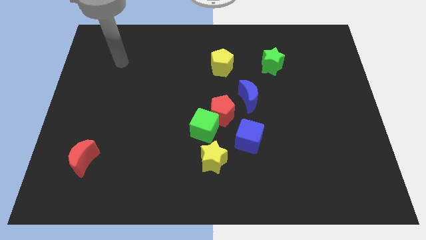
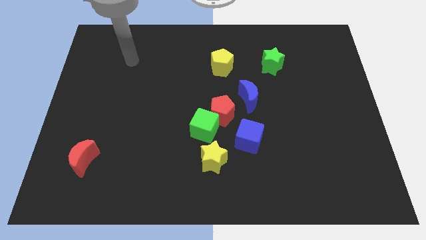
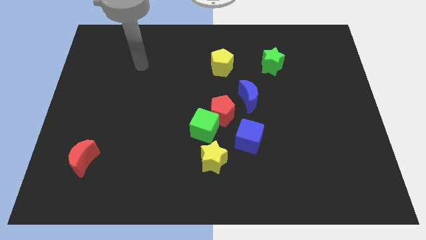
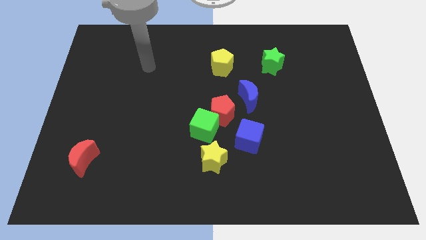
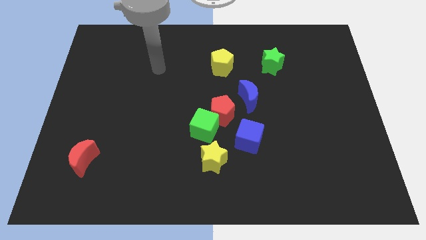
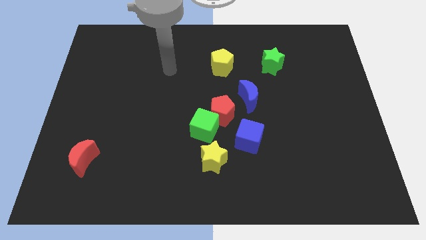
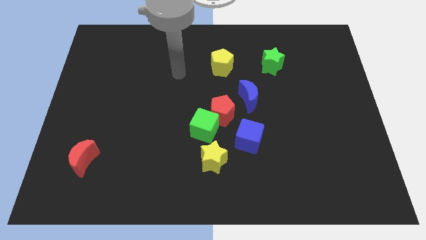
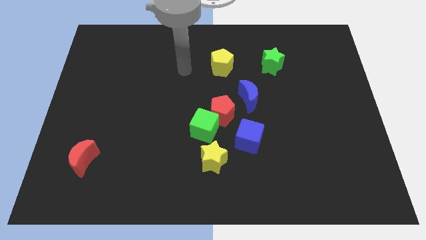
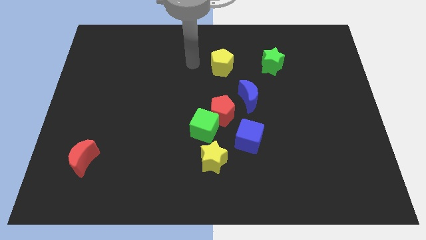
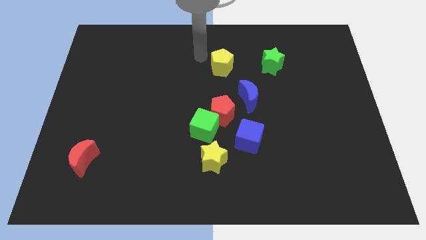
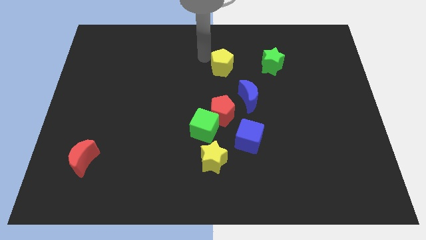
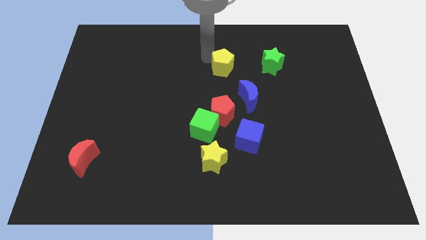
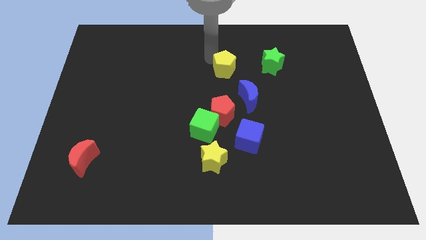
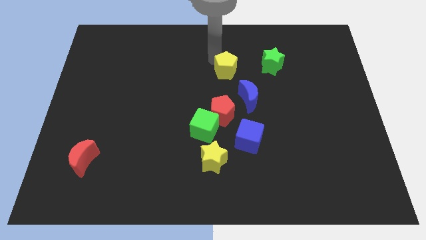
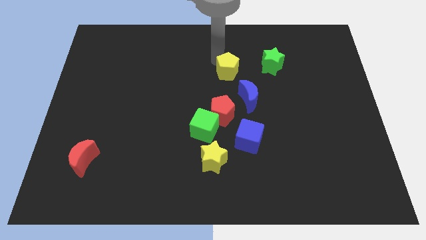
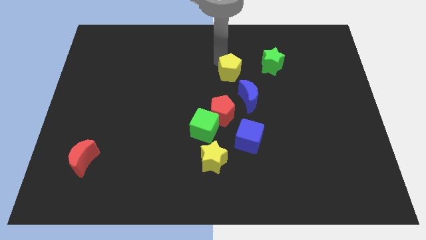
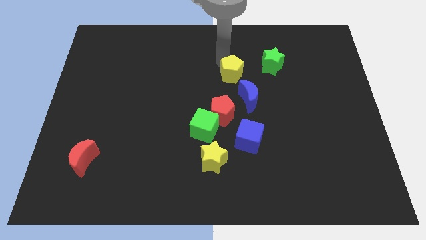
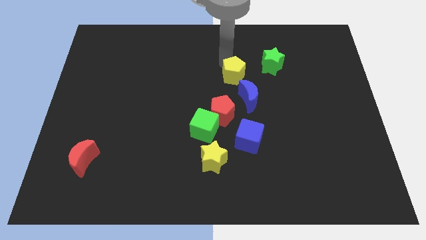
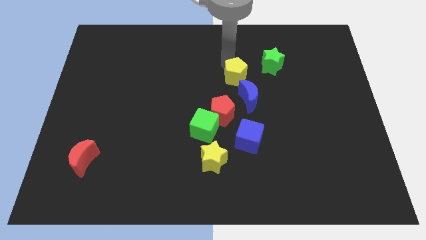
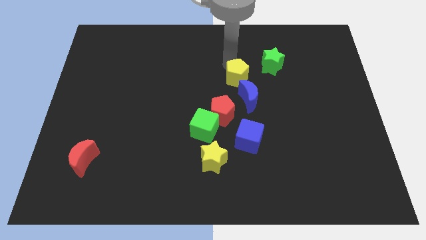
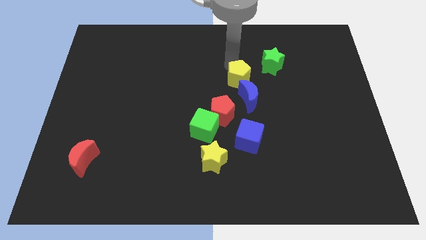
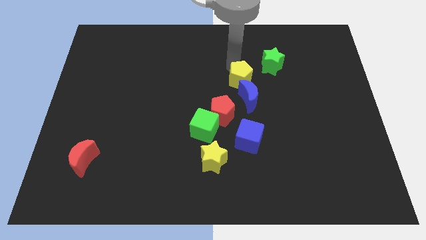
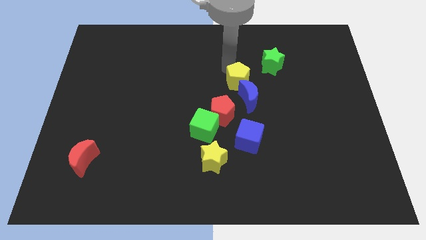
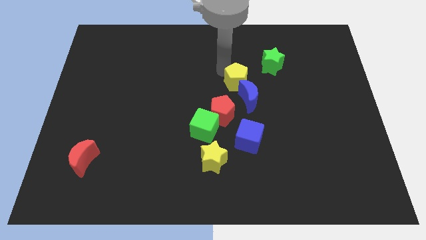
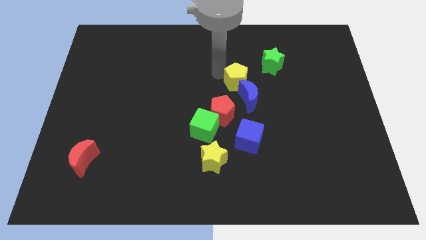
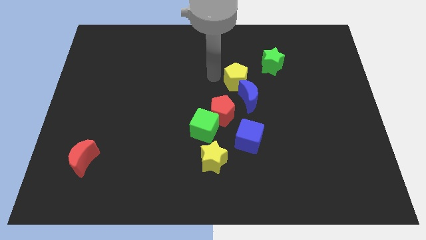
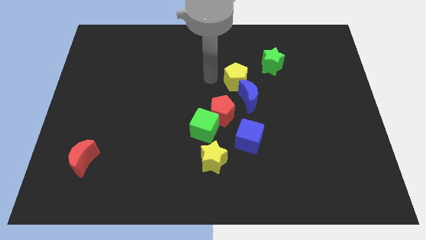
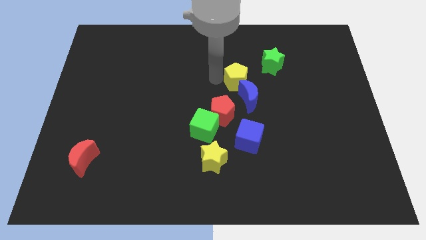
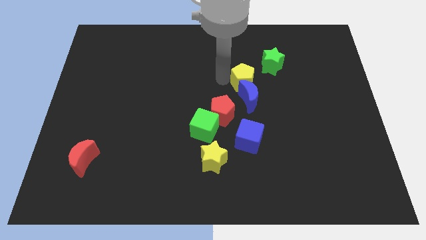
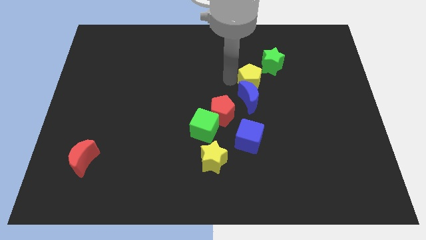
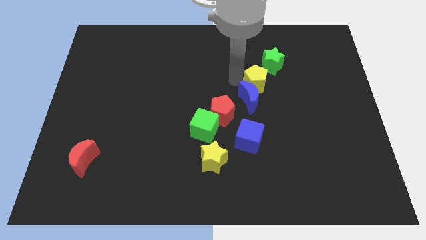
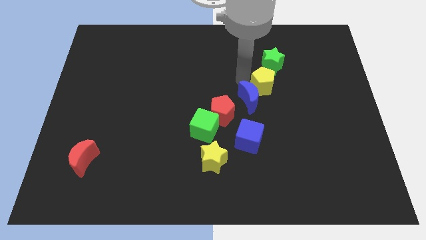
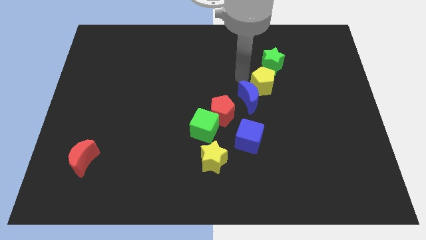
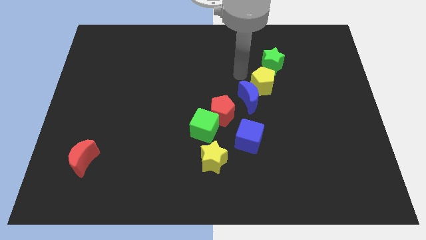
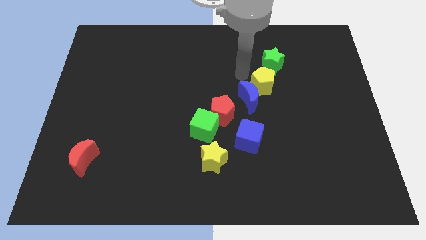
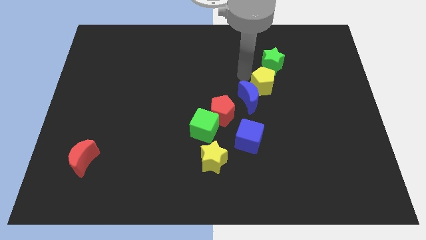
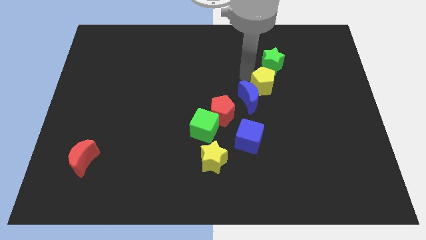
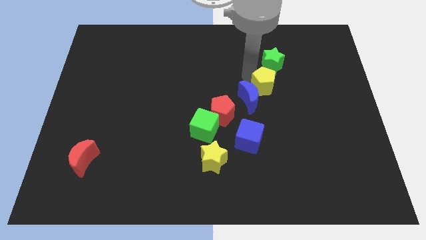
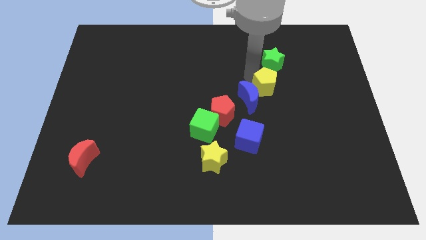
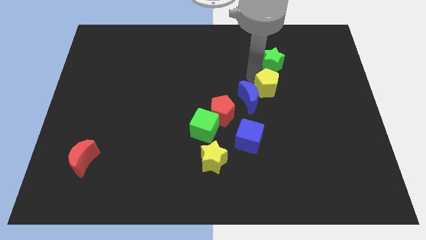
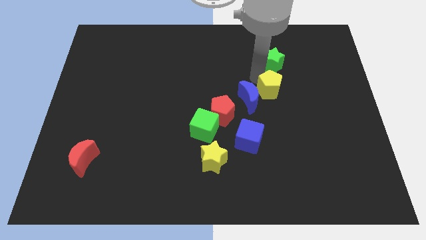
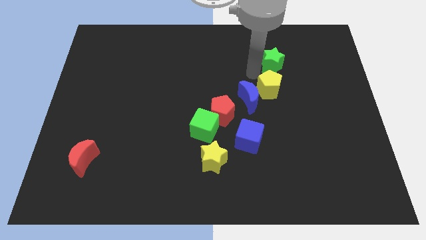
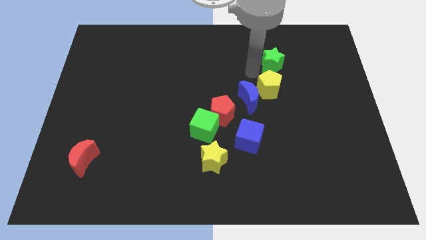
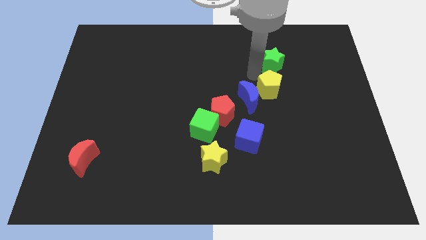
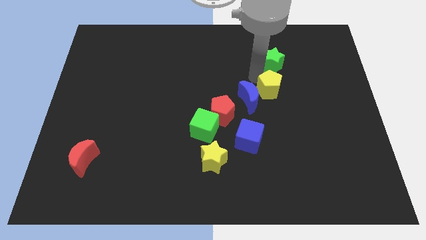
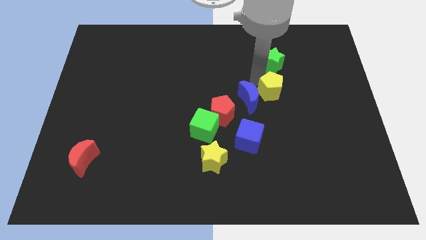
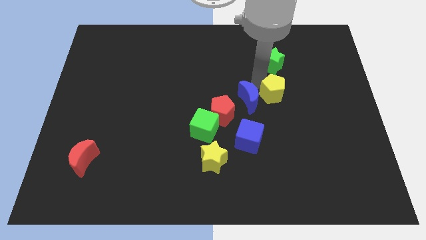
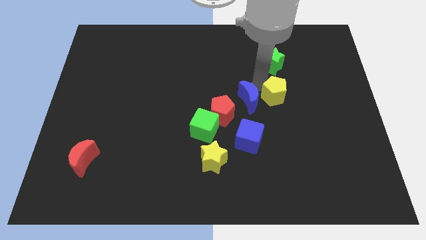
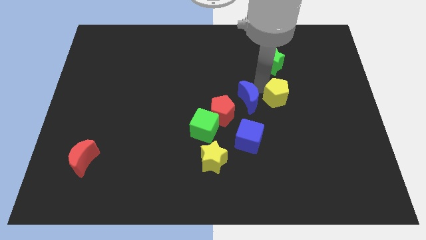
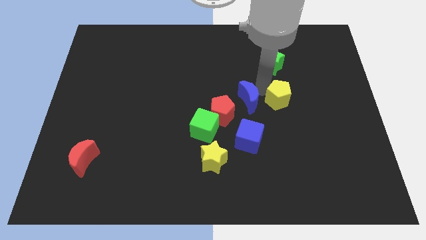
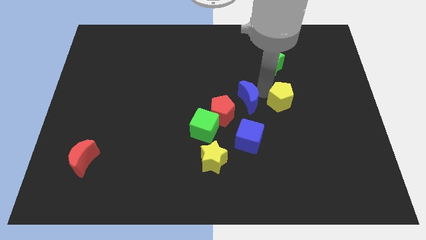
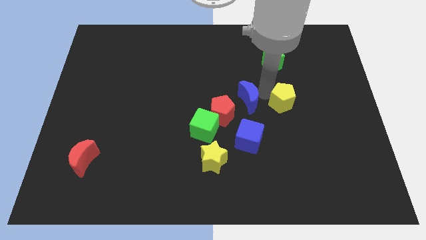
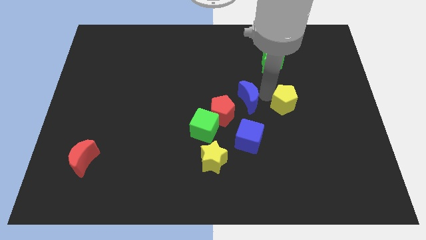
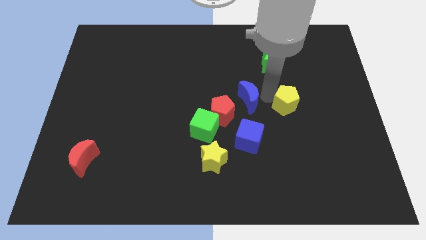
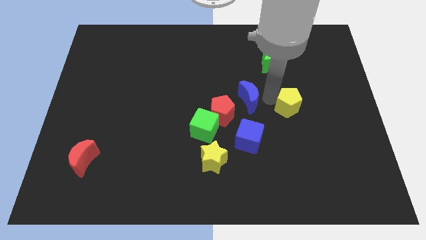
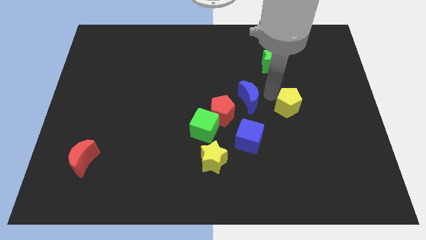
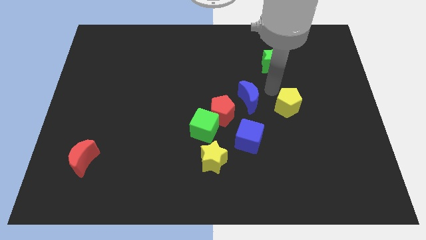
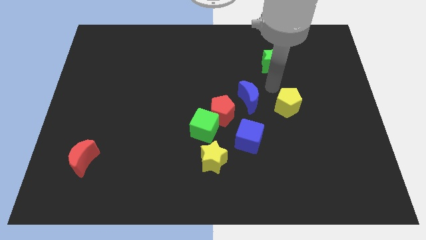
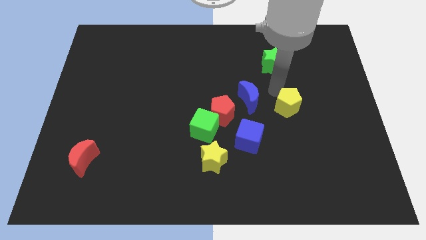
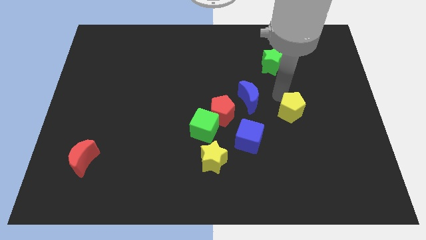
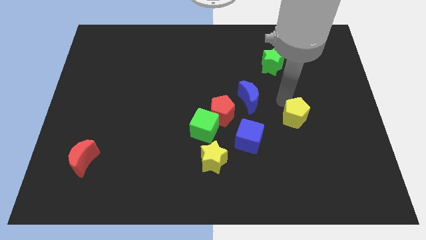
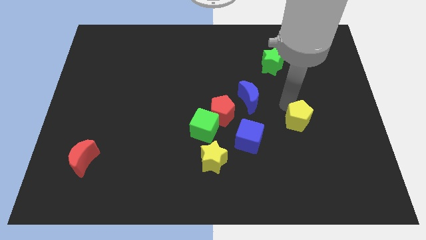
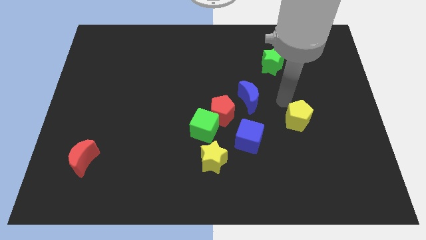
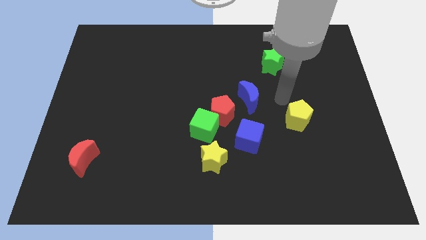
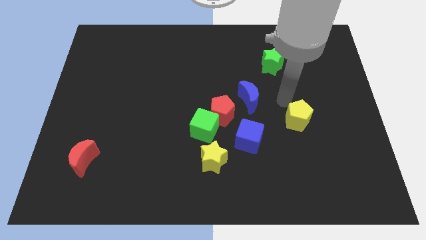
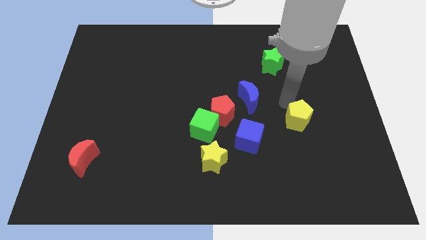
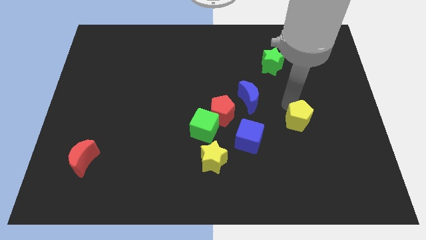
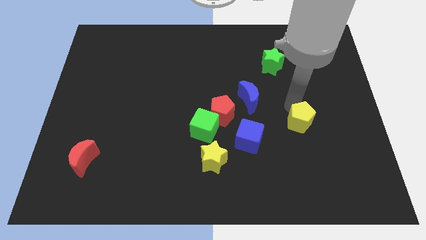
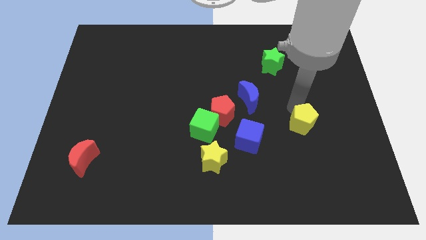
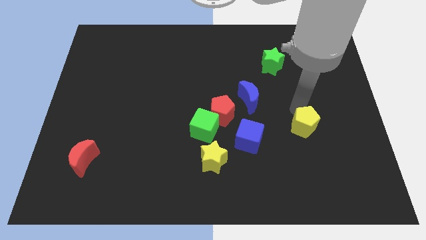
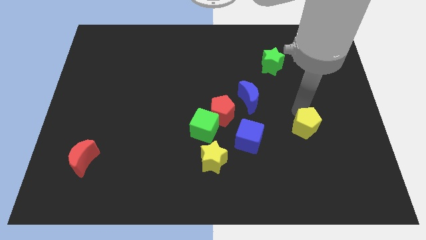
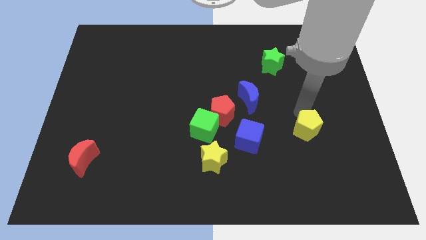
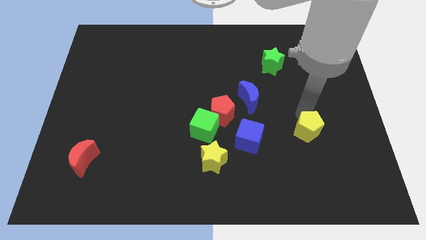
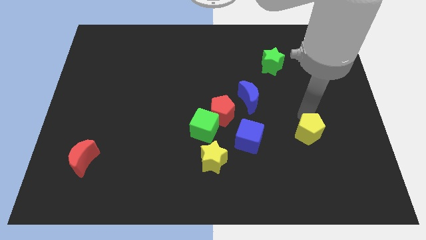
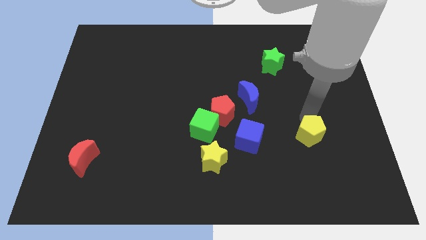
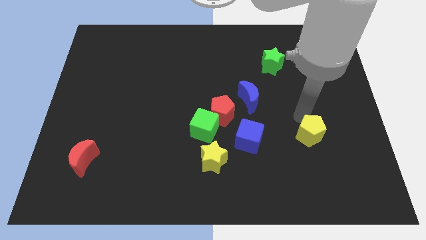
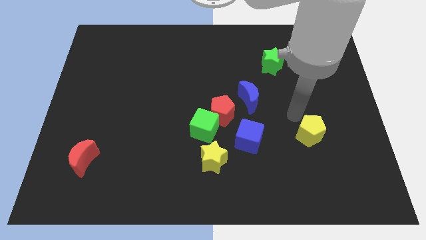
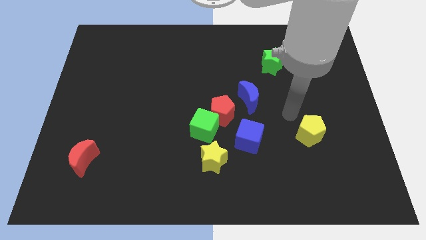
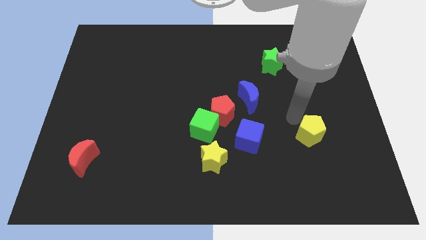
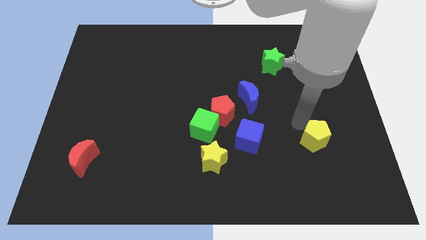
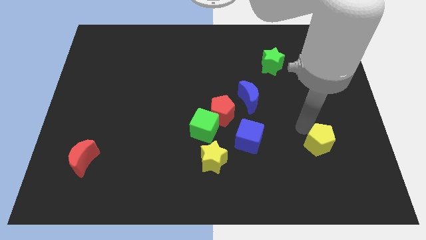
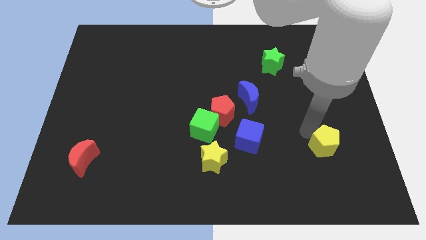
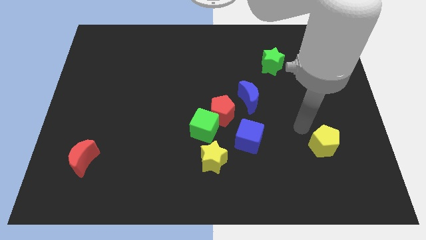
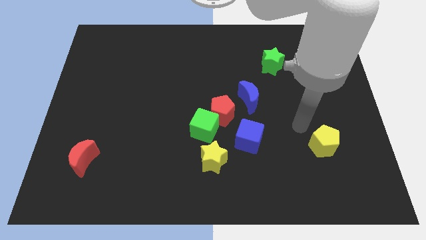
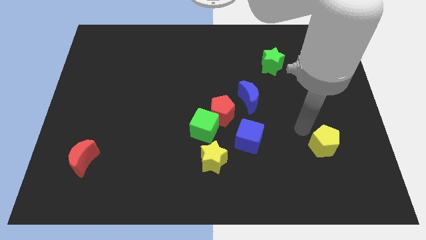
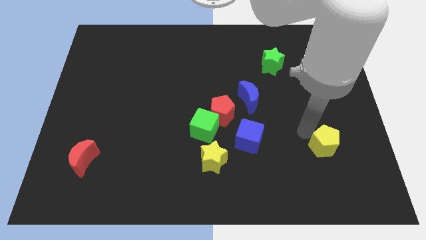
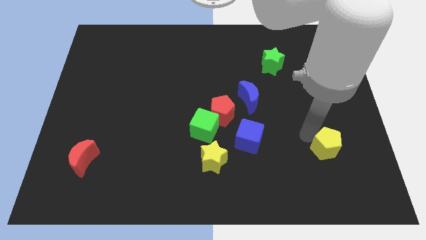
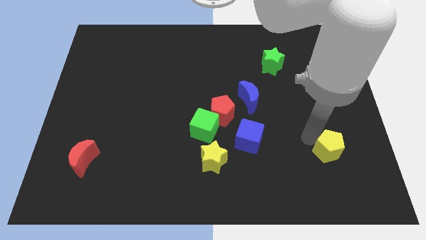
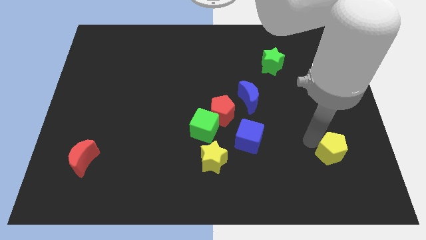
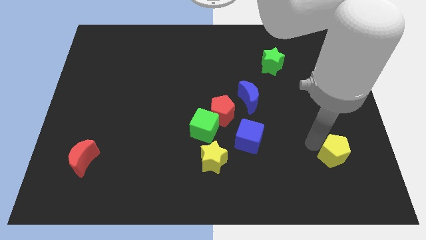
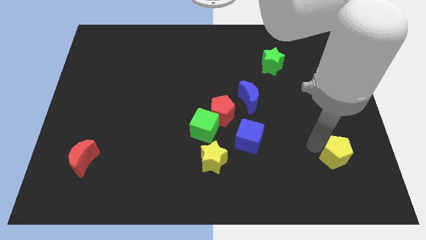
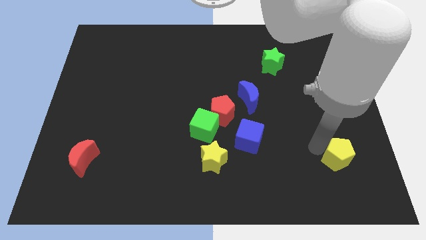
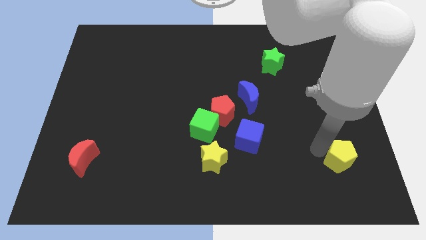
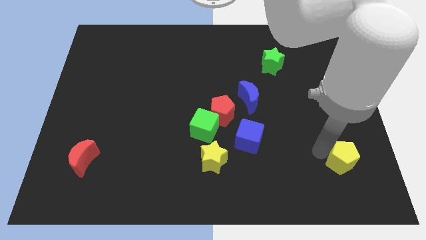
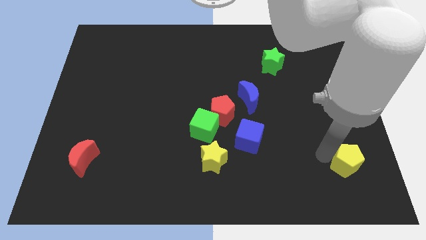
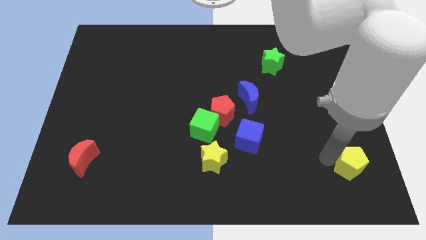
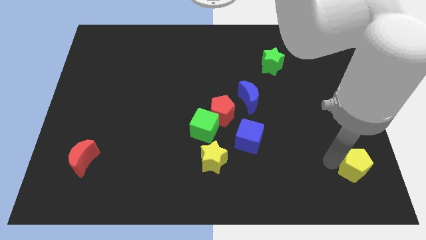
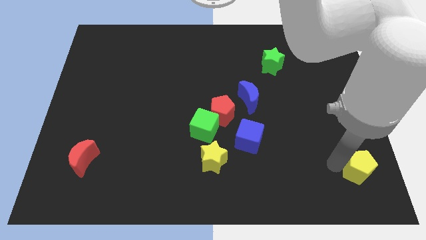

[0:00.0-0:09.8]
move the yellow pentagon to the lower right corner
